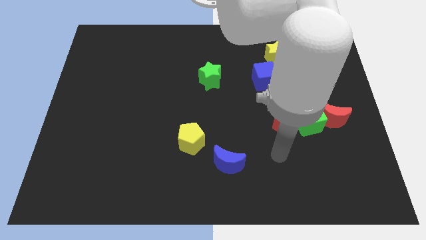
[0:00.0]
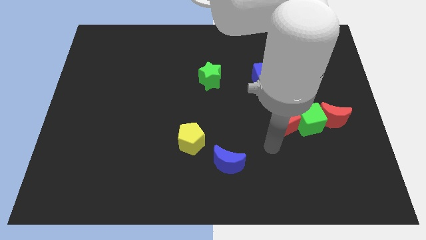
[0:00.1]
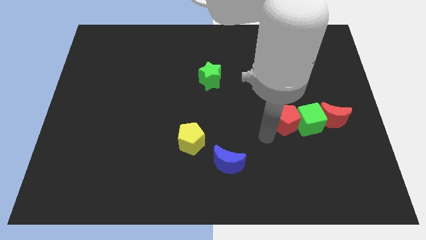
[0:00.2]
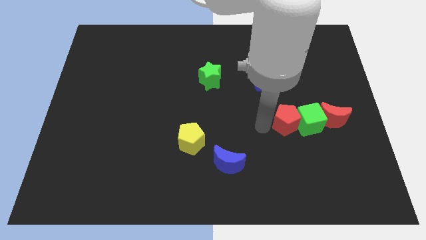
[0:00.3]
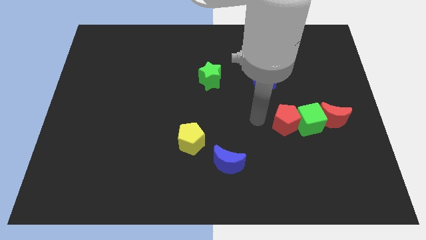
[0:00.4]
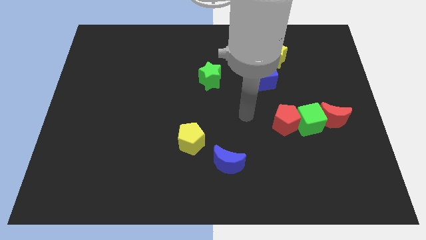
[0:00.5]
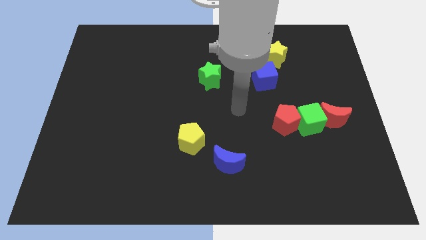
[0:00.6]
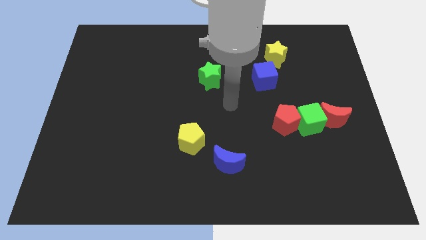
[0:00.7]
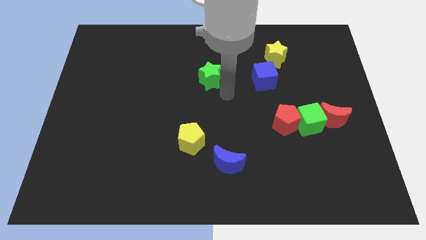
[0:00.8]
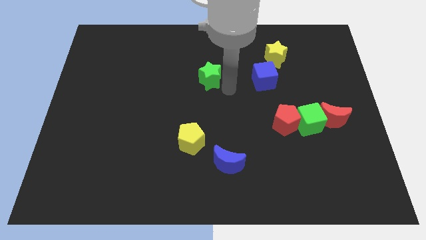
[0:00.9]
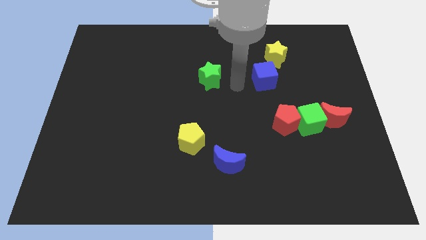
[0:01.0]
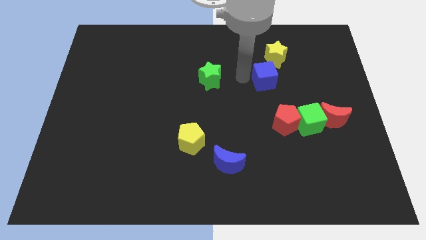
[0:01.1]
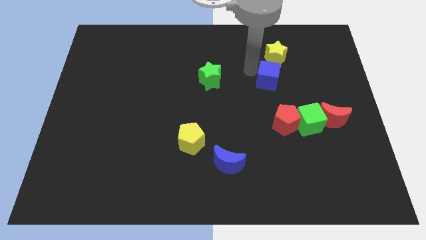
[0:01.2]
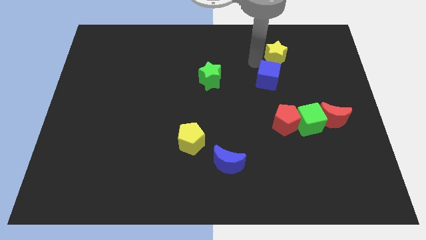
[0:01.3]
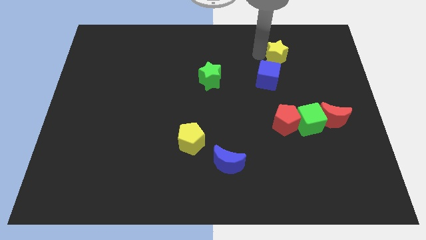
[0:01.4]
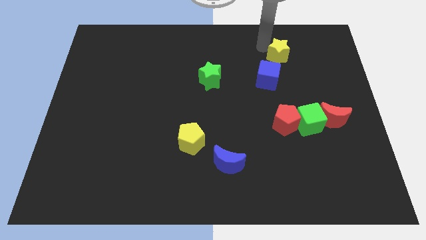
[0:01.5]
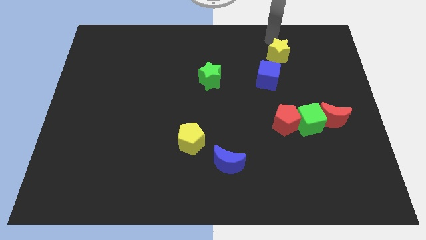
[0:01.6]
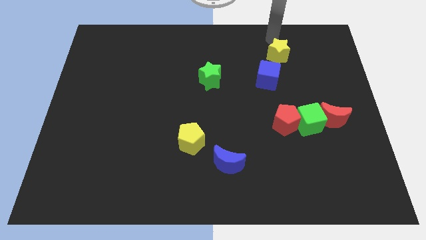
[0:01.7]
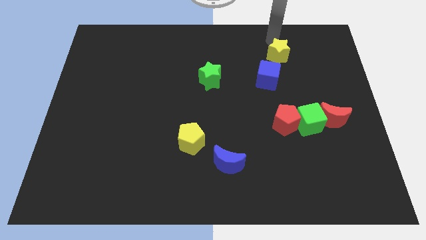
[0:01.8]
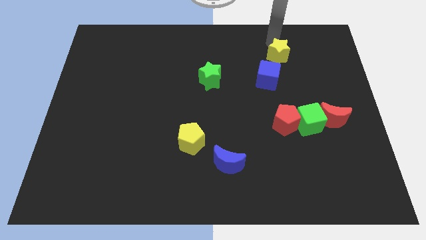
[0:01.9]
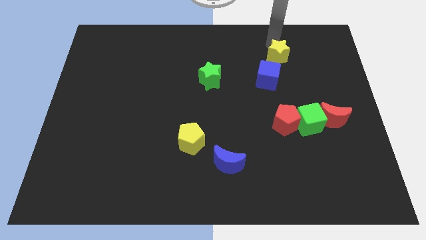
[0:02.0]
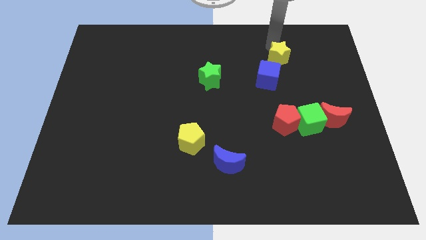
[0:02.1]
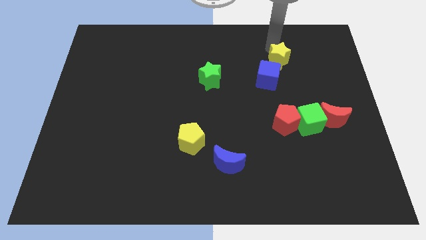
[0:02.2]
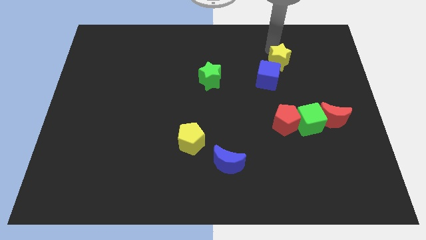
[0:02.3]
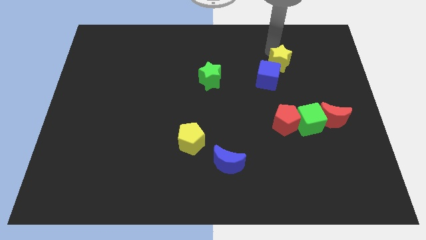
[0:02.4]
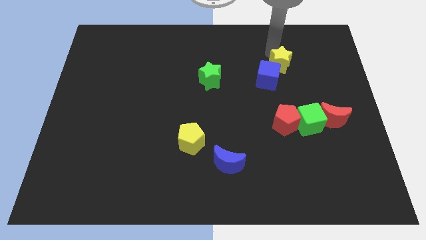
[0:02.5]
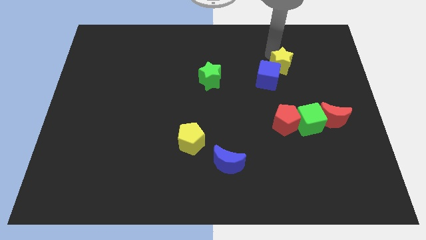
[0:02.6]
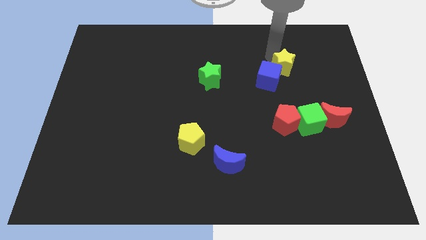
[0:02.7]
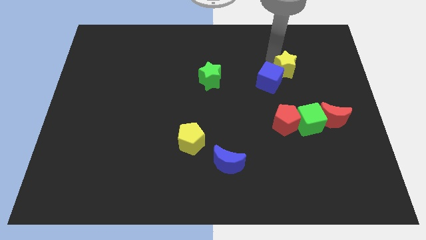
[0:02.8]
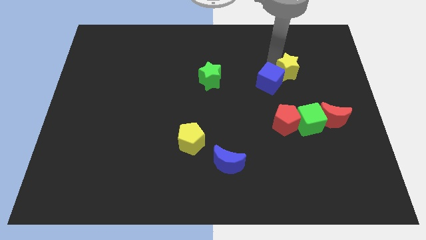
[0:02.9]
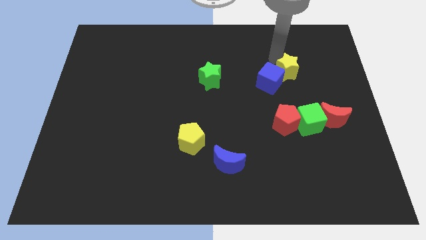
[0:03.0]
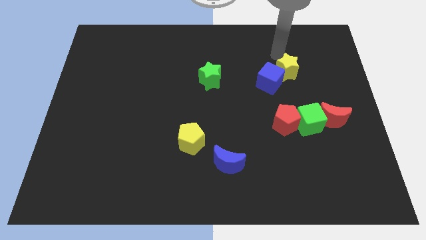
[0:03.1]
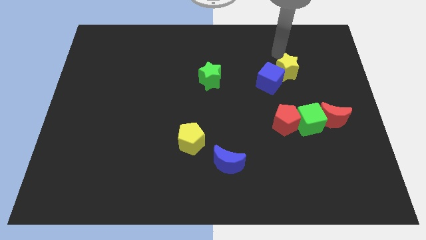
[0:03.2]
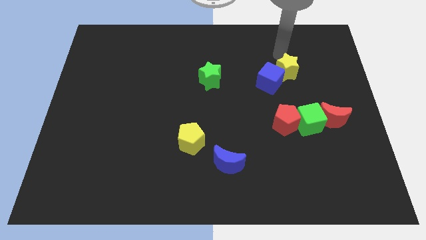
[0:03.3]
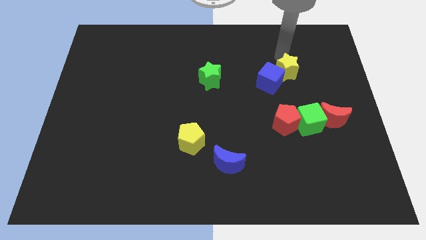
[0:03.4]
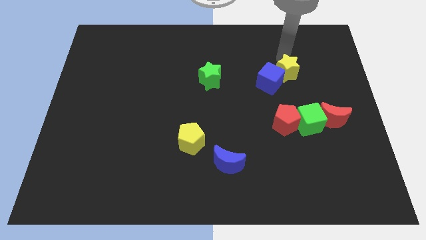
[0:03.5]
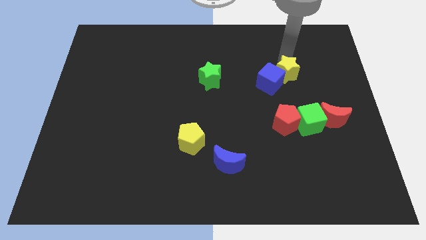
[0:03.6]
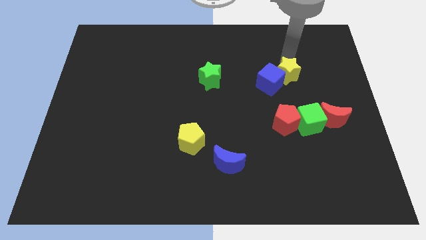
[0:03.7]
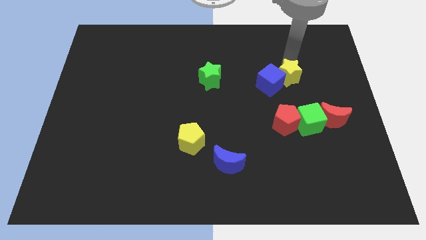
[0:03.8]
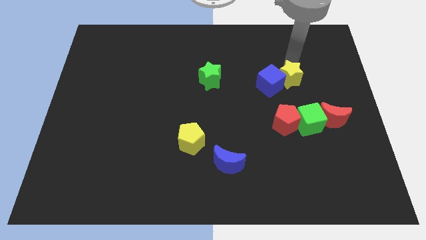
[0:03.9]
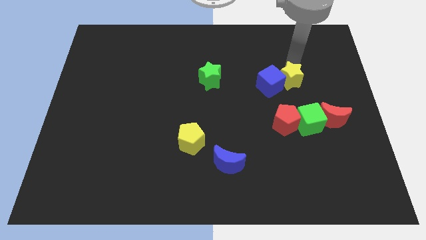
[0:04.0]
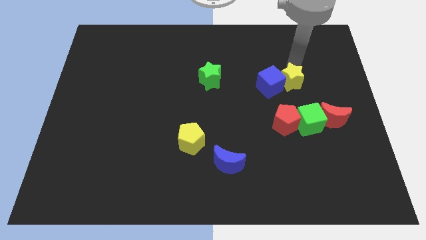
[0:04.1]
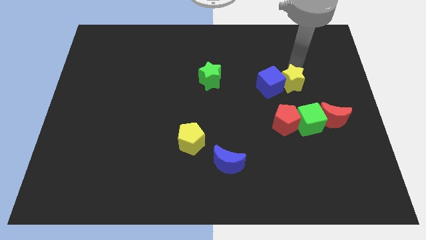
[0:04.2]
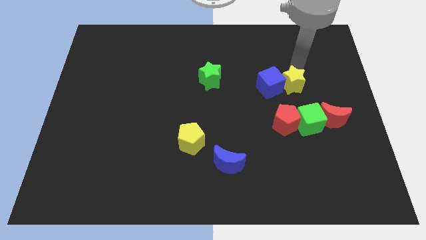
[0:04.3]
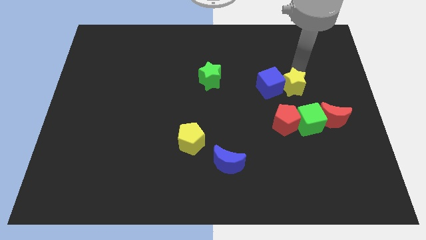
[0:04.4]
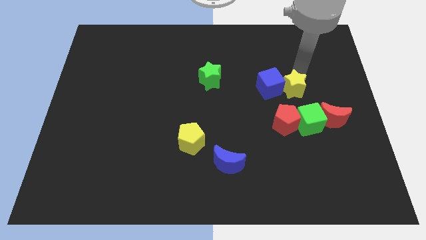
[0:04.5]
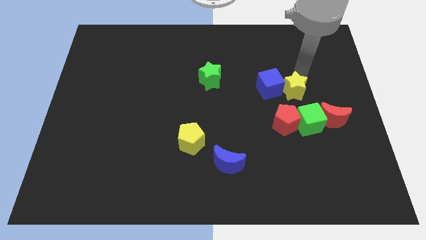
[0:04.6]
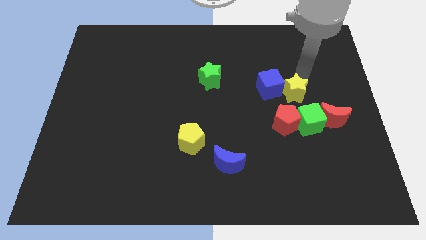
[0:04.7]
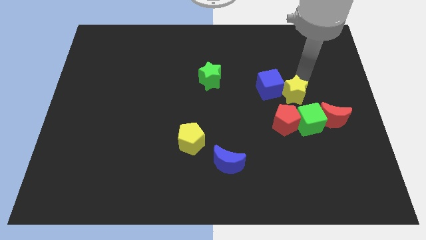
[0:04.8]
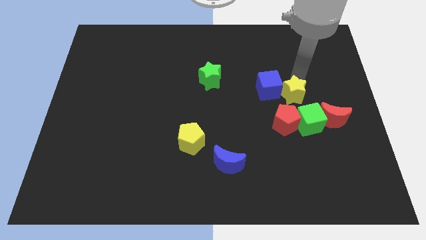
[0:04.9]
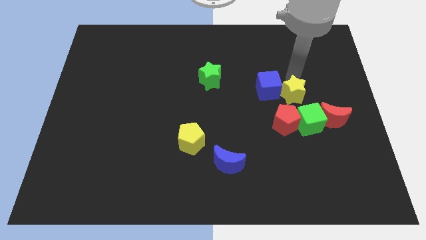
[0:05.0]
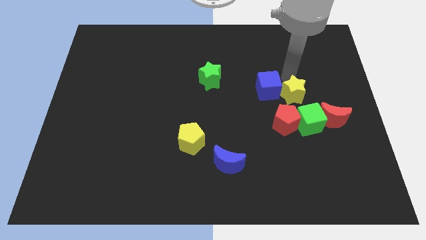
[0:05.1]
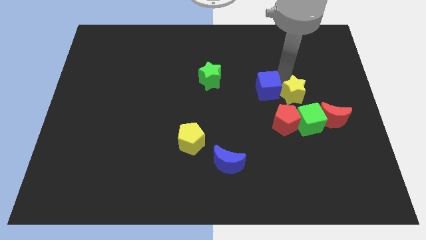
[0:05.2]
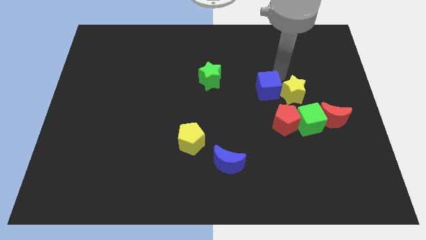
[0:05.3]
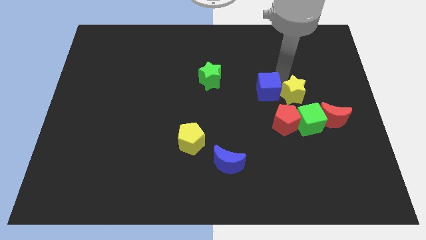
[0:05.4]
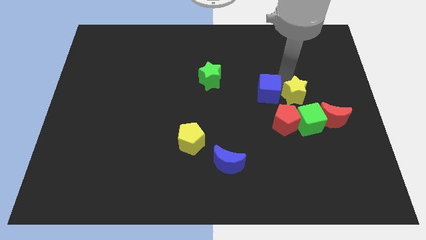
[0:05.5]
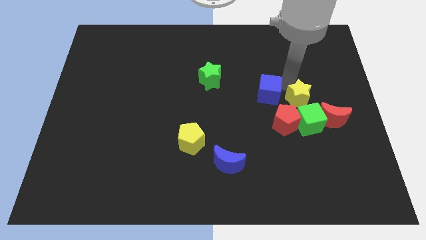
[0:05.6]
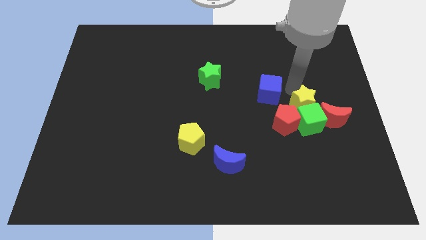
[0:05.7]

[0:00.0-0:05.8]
move the yellow star close to the green cube

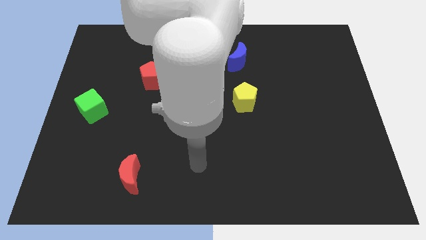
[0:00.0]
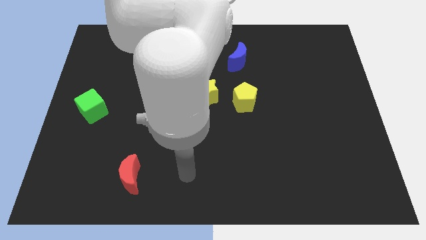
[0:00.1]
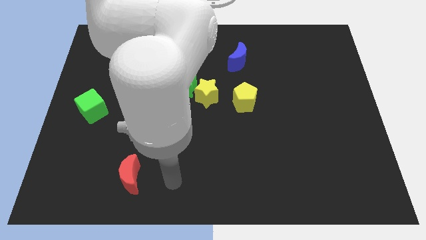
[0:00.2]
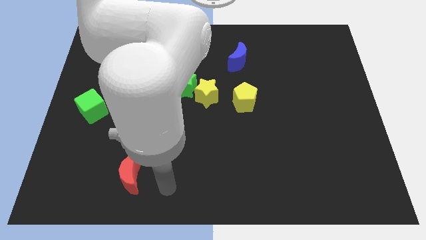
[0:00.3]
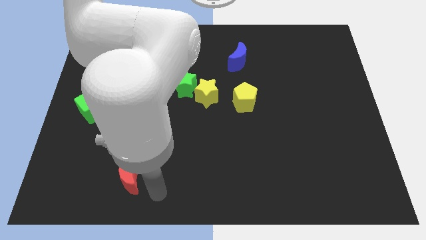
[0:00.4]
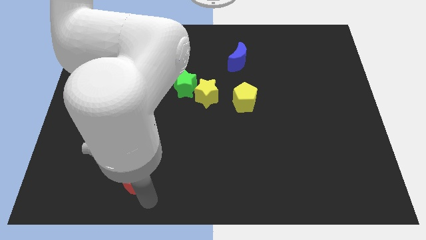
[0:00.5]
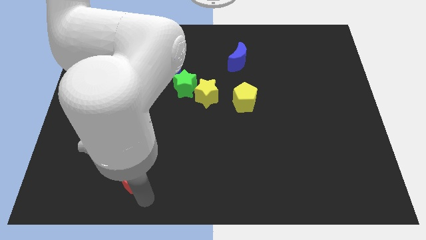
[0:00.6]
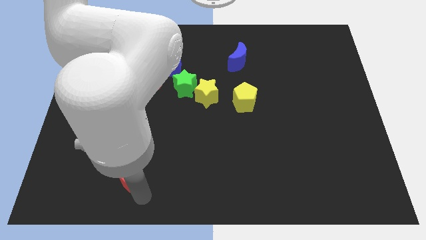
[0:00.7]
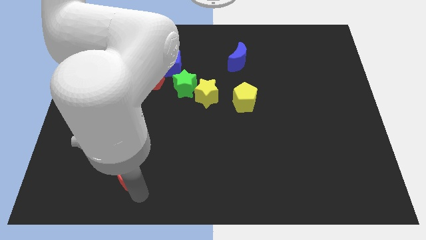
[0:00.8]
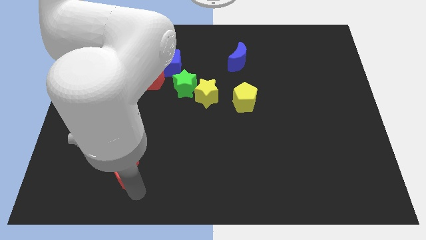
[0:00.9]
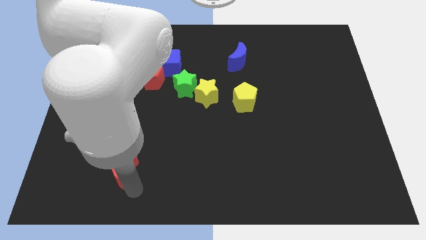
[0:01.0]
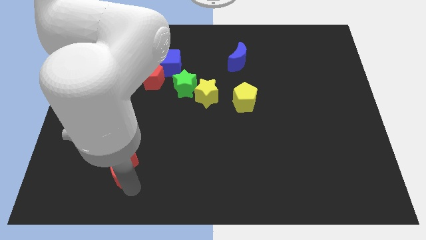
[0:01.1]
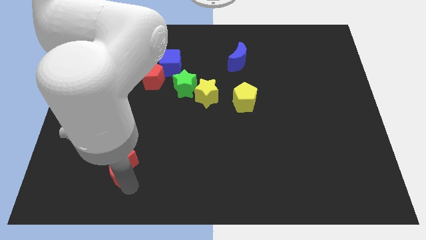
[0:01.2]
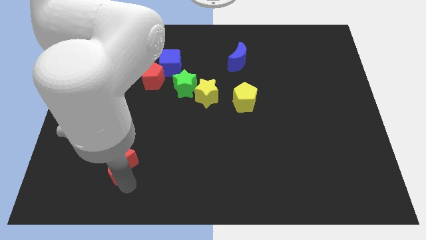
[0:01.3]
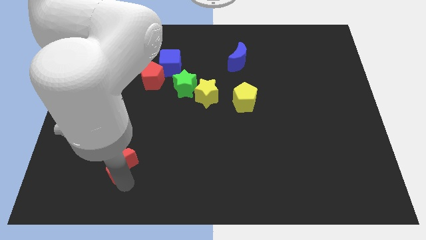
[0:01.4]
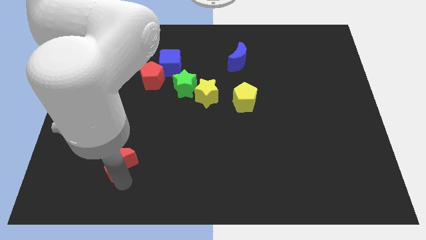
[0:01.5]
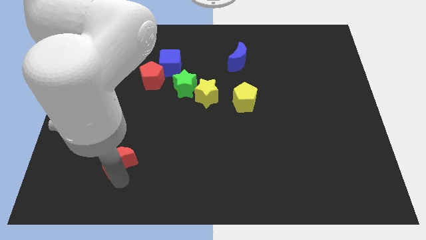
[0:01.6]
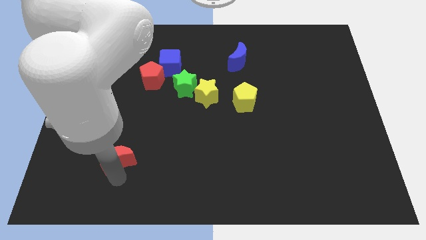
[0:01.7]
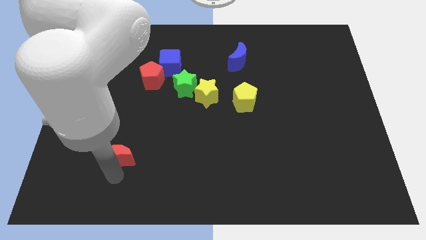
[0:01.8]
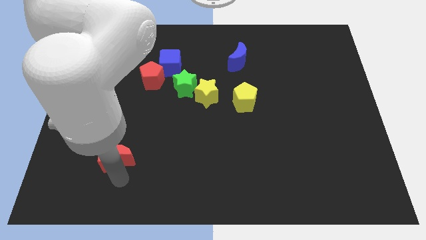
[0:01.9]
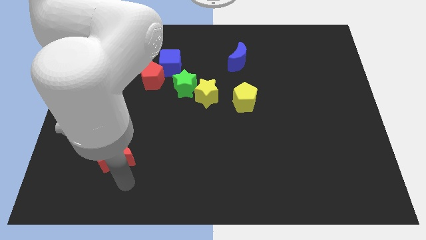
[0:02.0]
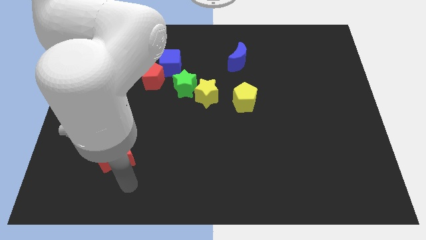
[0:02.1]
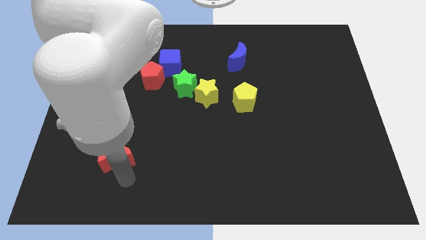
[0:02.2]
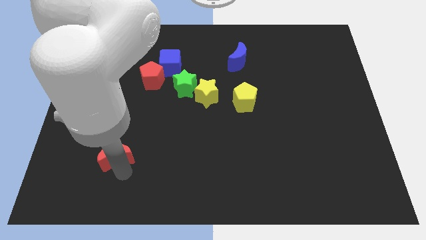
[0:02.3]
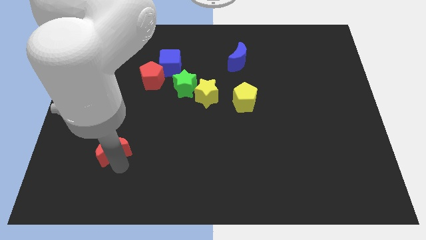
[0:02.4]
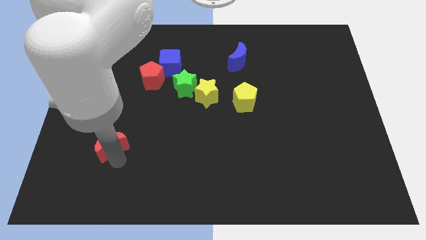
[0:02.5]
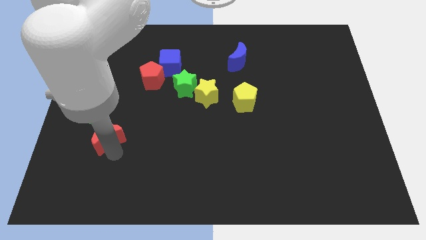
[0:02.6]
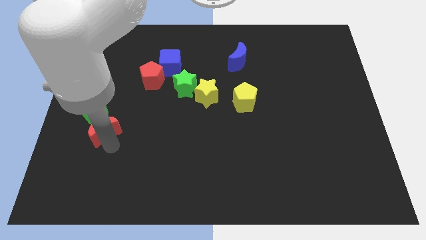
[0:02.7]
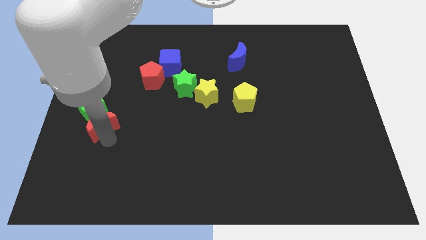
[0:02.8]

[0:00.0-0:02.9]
put the red moon next to the green cube
